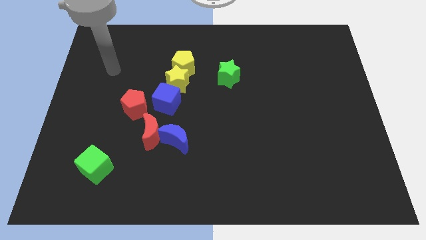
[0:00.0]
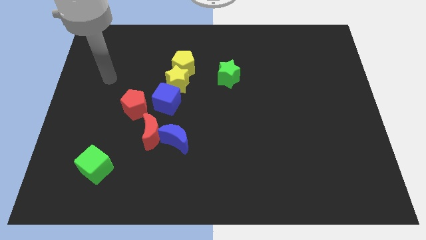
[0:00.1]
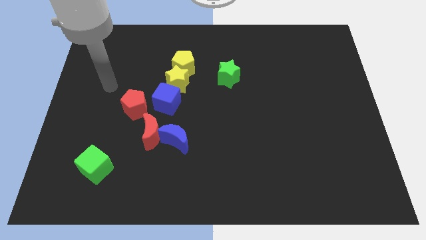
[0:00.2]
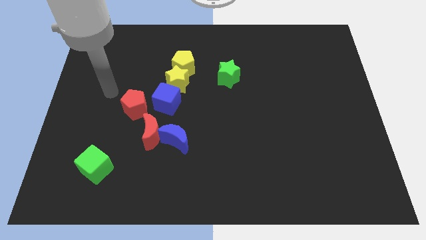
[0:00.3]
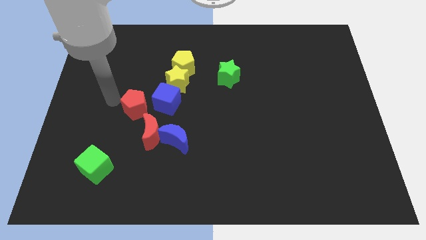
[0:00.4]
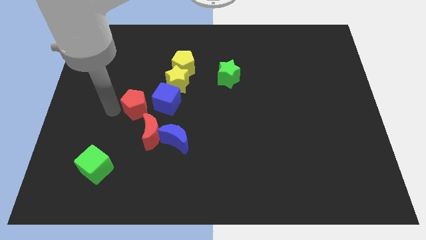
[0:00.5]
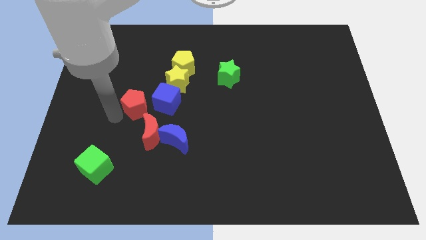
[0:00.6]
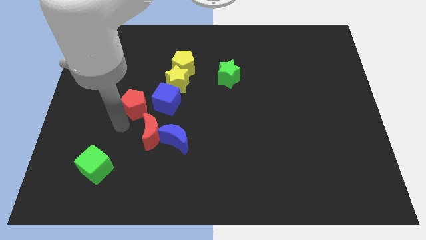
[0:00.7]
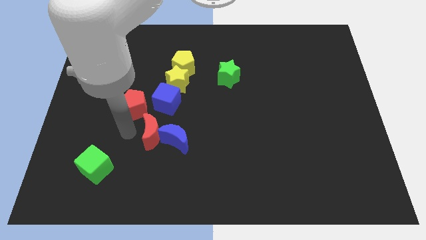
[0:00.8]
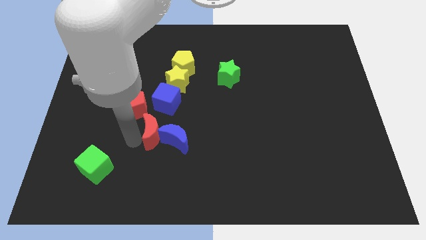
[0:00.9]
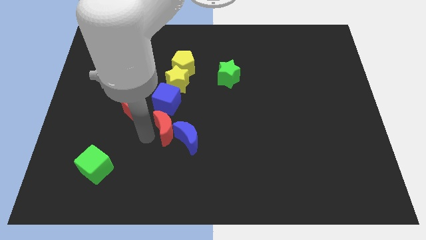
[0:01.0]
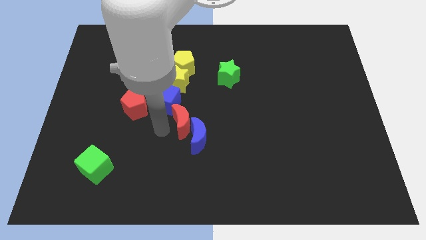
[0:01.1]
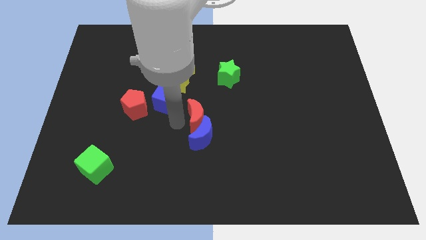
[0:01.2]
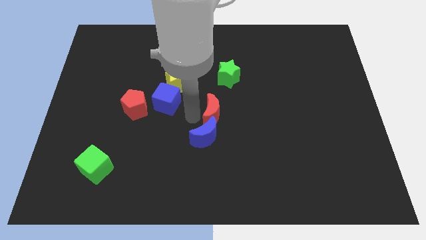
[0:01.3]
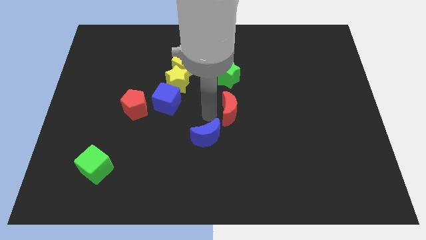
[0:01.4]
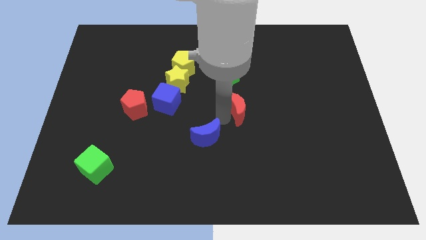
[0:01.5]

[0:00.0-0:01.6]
move the blue moon away from the red moon

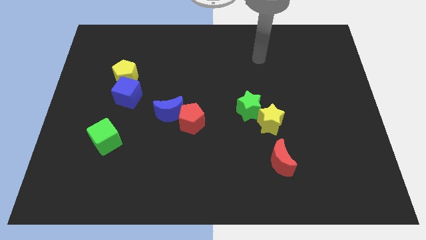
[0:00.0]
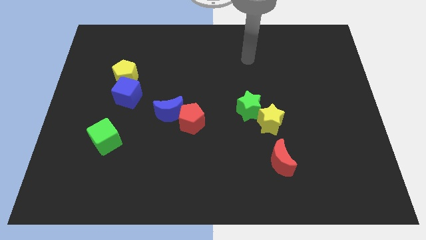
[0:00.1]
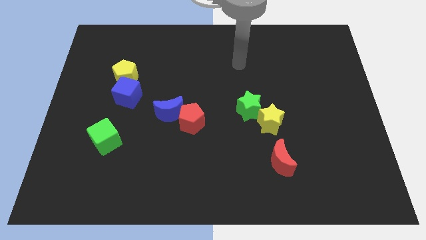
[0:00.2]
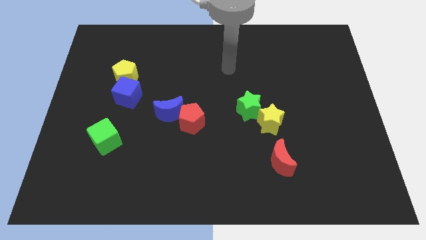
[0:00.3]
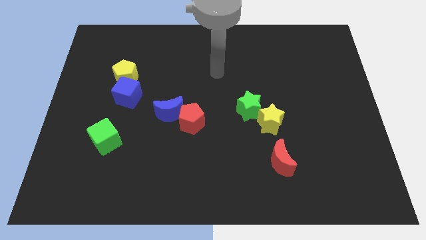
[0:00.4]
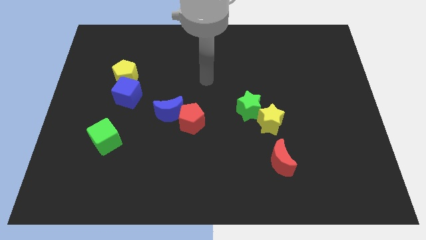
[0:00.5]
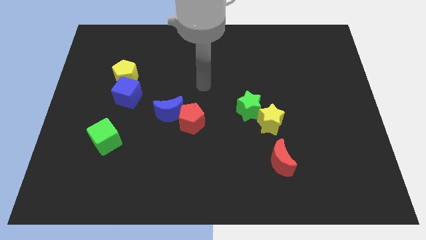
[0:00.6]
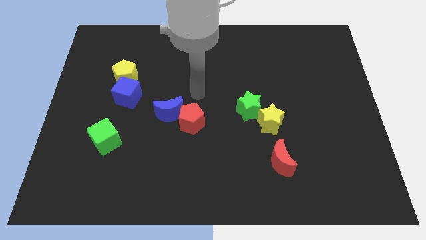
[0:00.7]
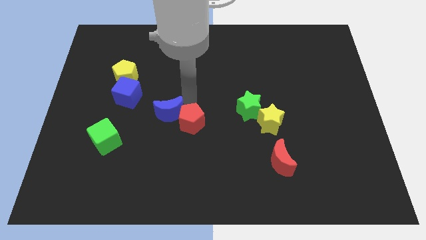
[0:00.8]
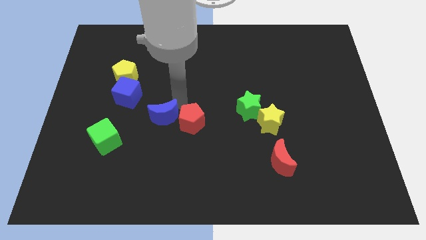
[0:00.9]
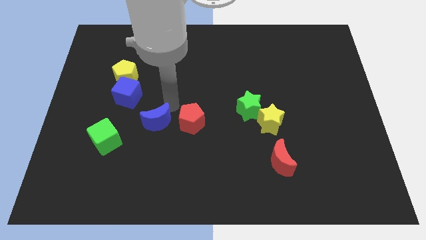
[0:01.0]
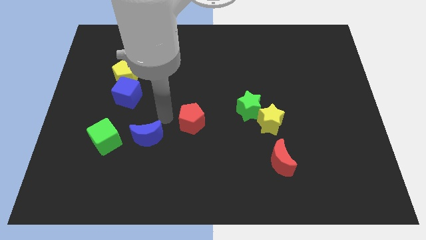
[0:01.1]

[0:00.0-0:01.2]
move the red pentagon away from the blue moon

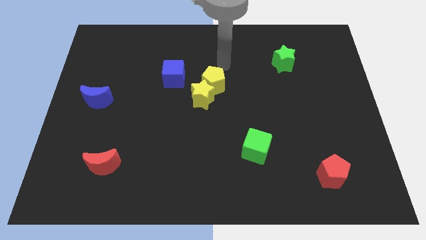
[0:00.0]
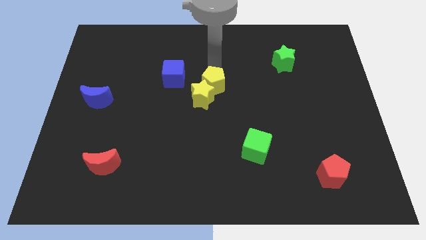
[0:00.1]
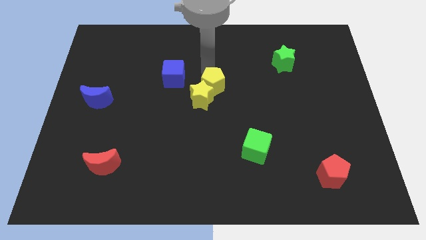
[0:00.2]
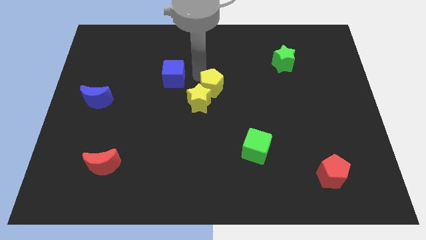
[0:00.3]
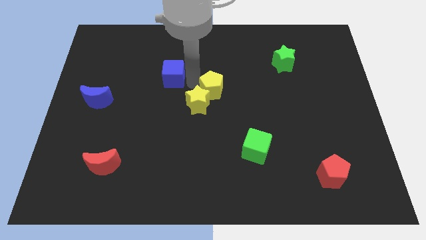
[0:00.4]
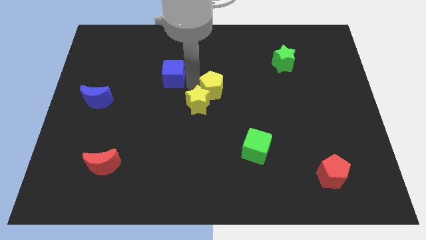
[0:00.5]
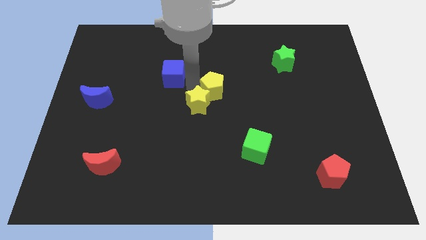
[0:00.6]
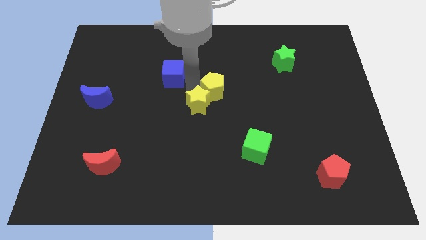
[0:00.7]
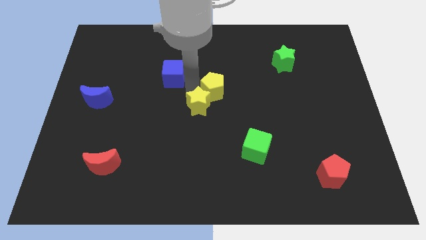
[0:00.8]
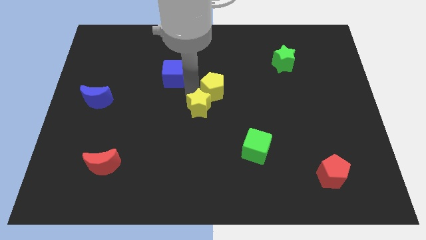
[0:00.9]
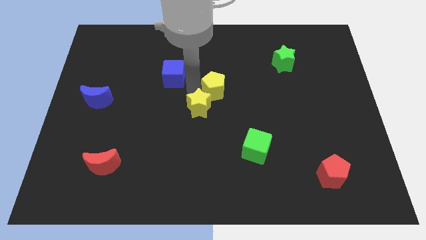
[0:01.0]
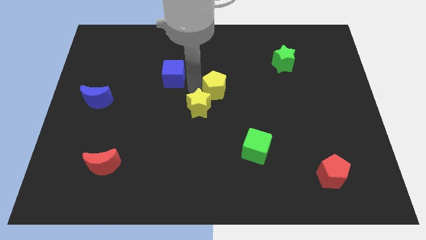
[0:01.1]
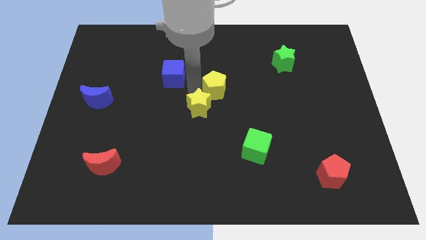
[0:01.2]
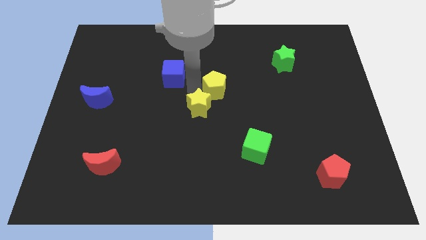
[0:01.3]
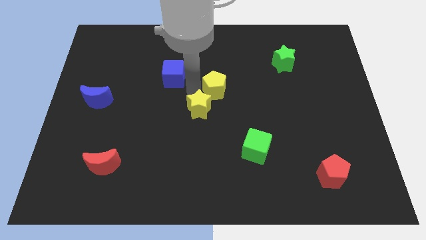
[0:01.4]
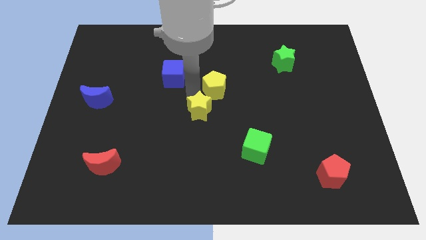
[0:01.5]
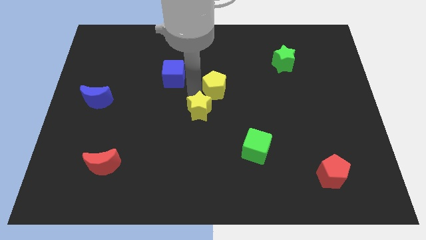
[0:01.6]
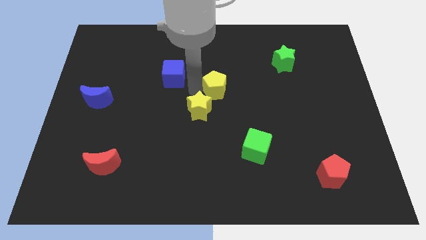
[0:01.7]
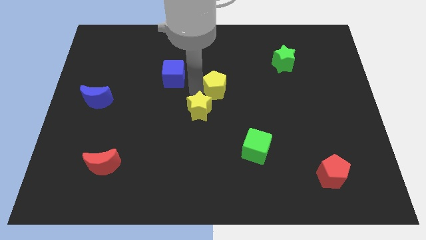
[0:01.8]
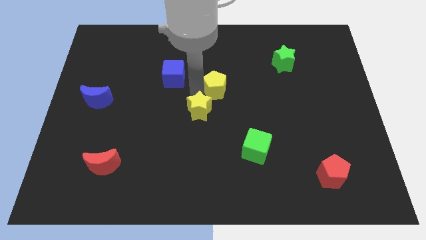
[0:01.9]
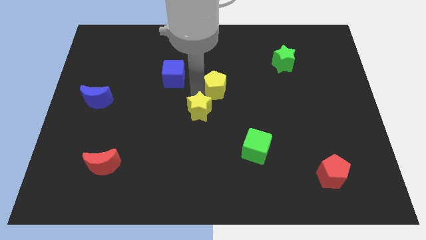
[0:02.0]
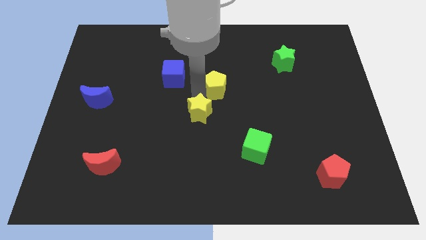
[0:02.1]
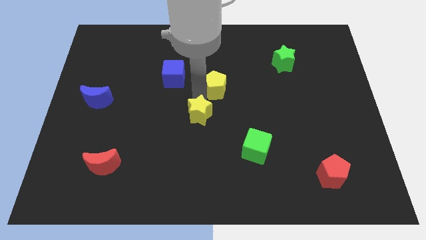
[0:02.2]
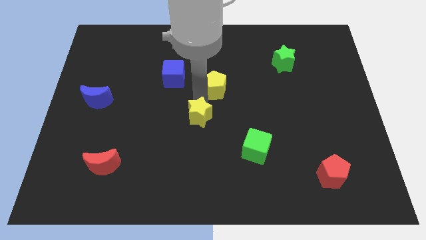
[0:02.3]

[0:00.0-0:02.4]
move the yellow star away from the yellow pentagon and blue cube

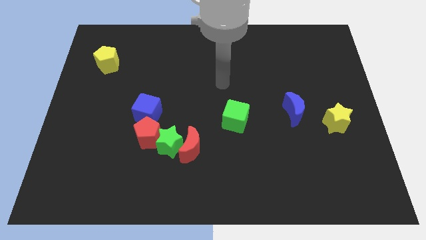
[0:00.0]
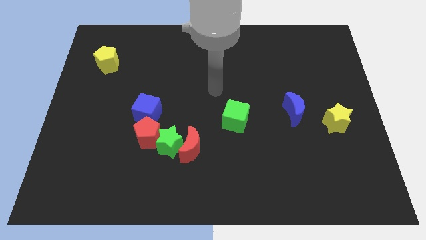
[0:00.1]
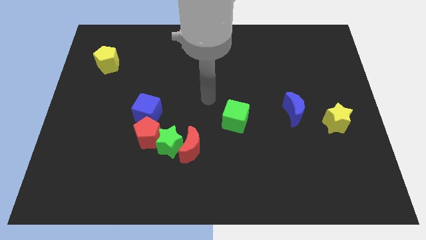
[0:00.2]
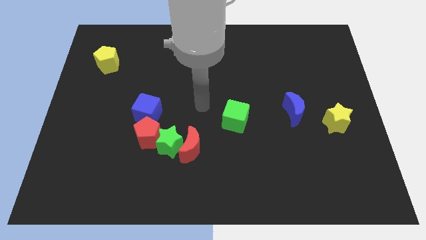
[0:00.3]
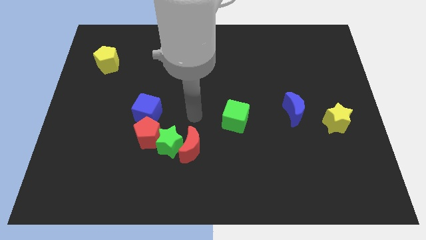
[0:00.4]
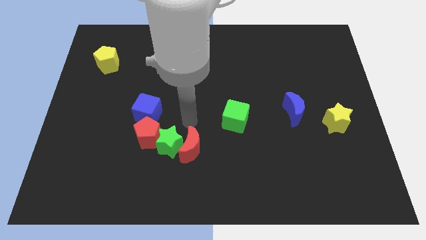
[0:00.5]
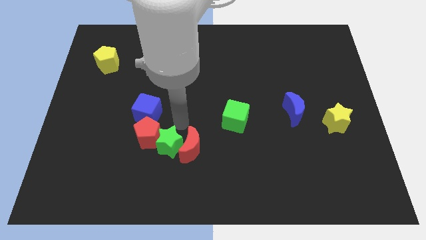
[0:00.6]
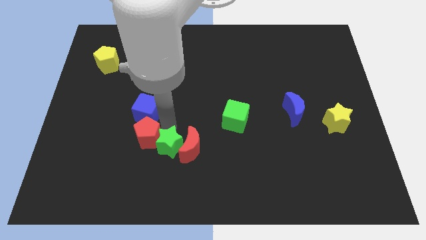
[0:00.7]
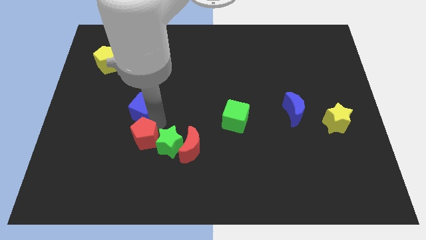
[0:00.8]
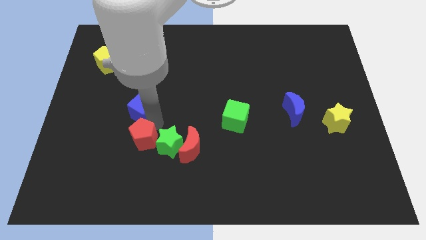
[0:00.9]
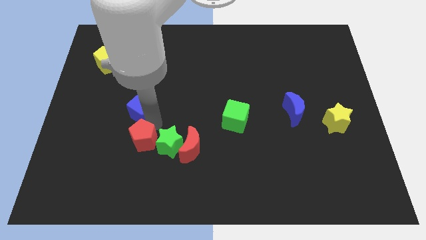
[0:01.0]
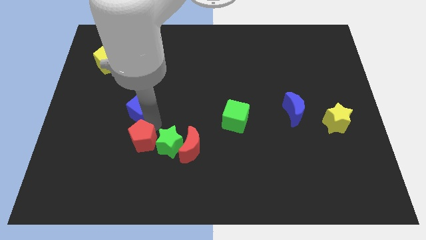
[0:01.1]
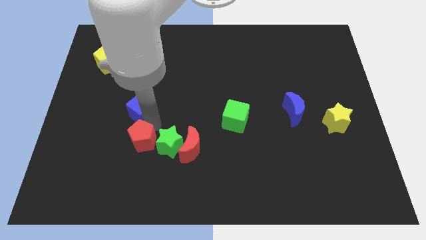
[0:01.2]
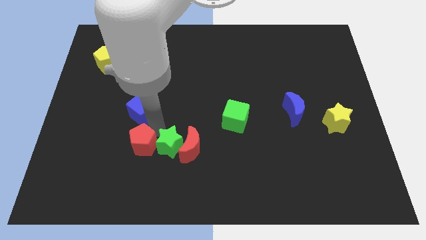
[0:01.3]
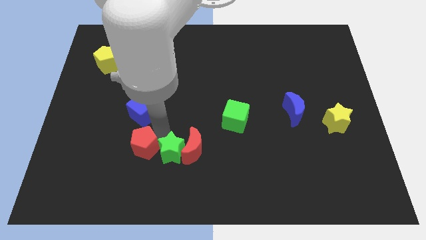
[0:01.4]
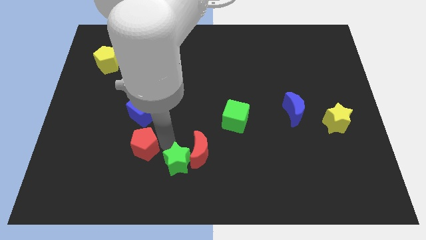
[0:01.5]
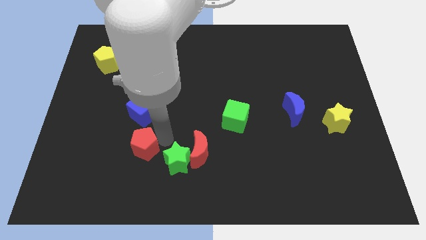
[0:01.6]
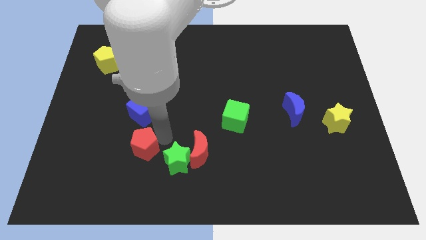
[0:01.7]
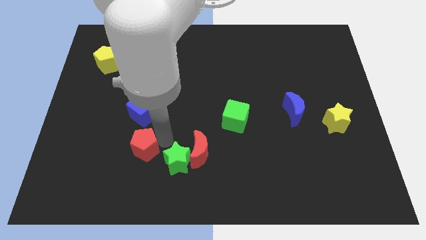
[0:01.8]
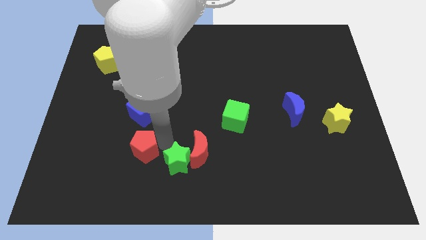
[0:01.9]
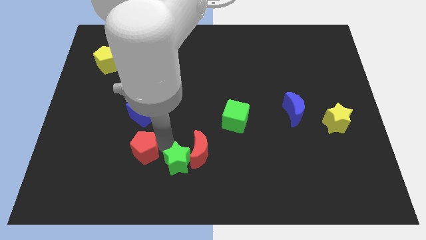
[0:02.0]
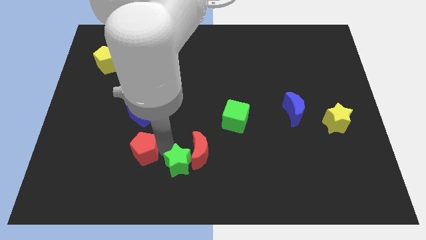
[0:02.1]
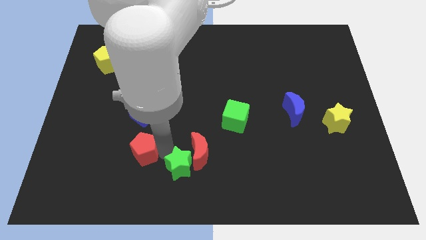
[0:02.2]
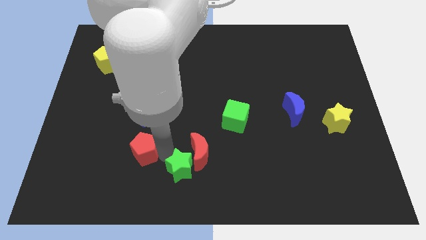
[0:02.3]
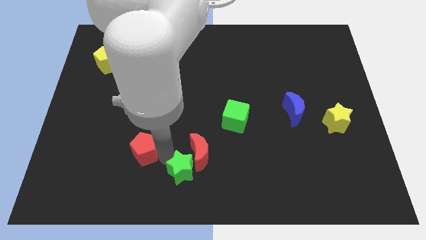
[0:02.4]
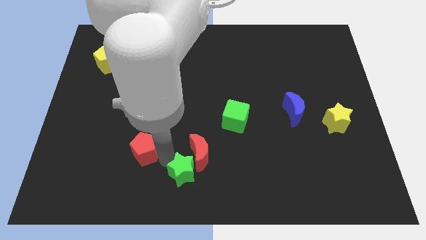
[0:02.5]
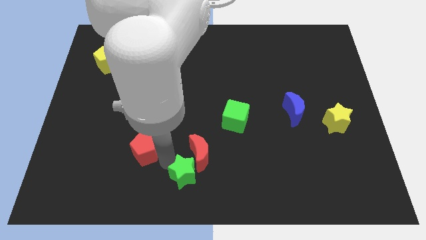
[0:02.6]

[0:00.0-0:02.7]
separate the green star from the group of blocks

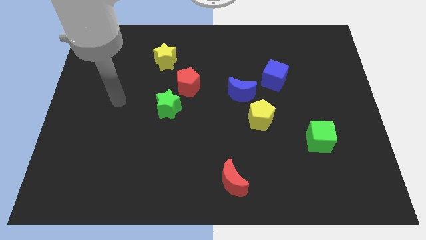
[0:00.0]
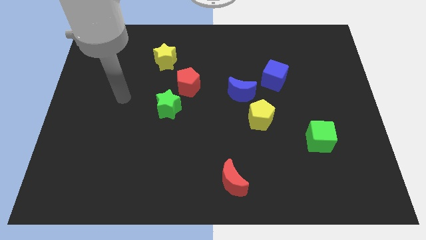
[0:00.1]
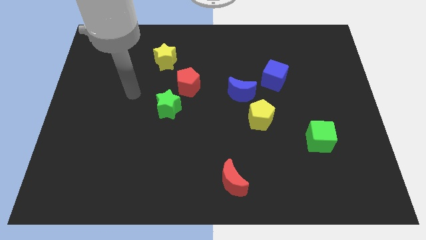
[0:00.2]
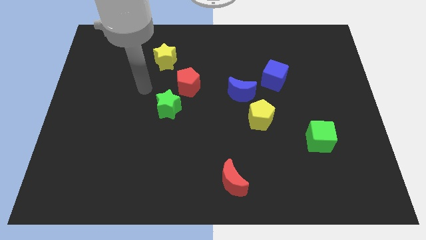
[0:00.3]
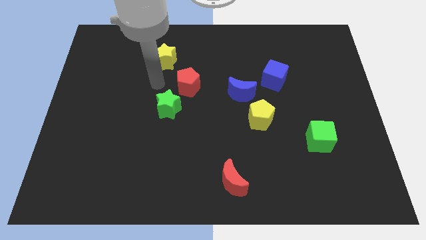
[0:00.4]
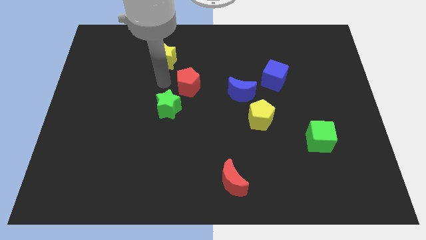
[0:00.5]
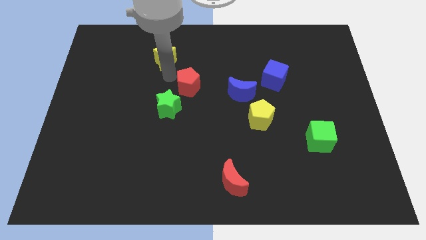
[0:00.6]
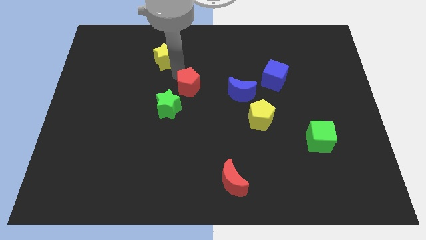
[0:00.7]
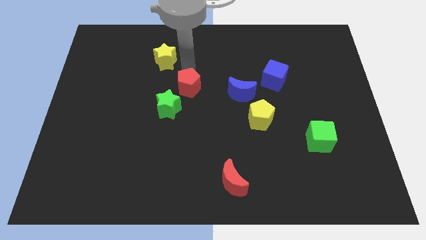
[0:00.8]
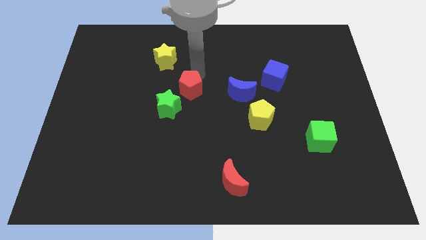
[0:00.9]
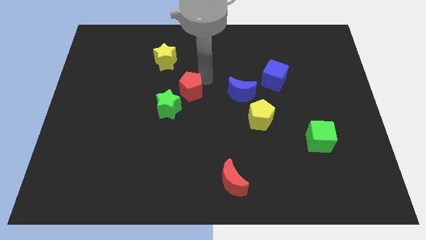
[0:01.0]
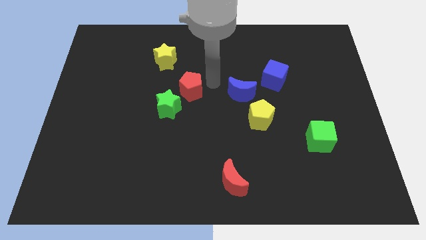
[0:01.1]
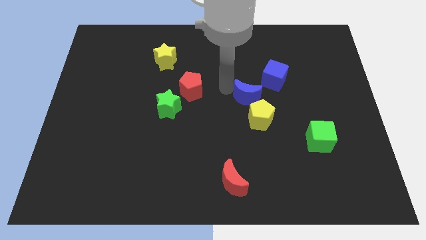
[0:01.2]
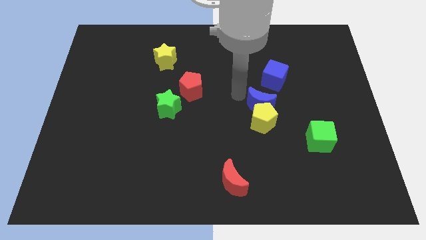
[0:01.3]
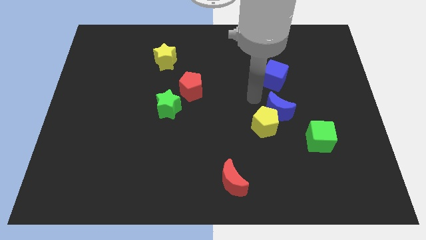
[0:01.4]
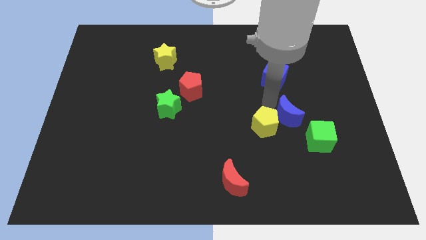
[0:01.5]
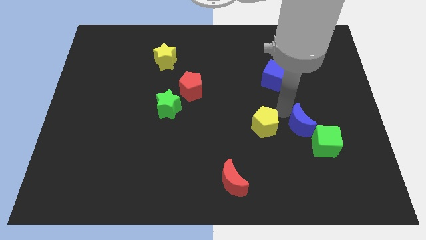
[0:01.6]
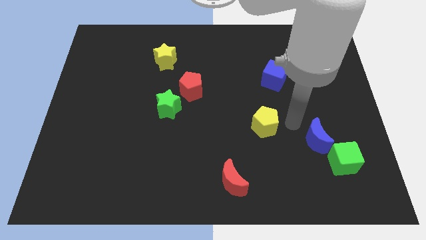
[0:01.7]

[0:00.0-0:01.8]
separate the yellow pentagon from the blue moon
